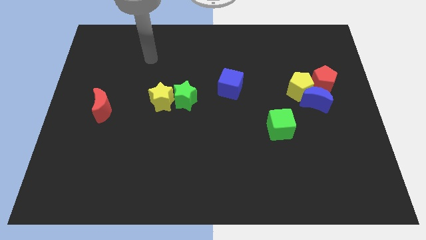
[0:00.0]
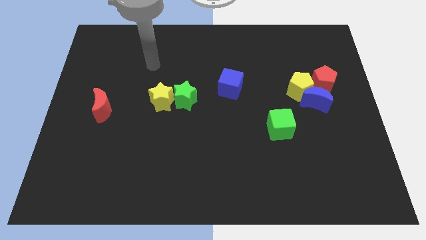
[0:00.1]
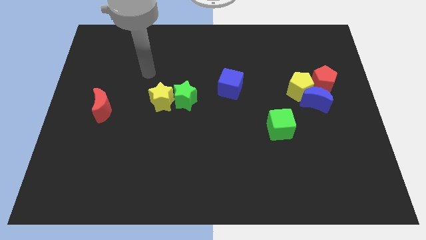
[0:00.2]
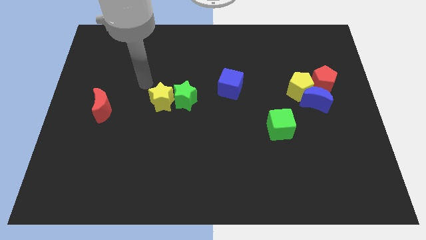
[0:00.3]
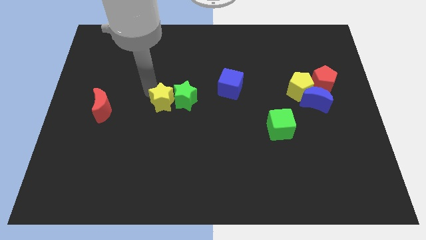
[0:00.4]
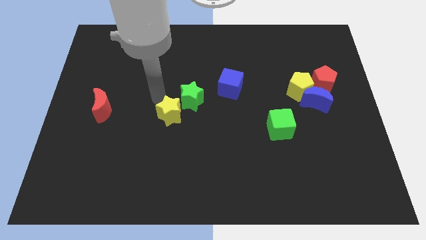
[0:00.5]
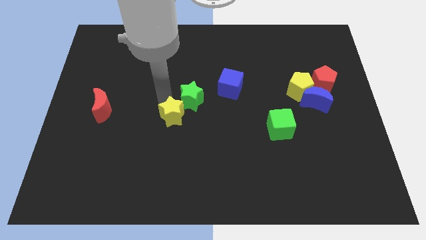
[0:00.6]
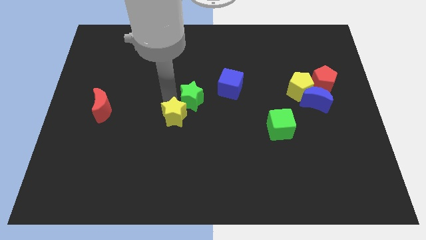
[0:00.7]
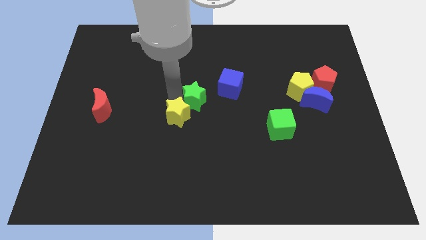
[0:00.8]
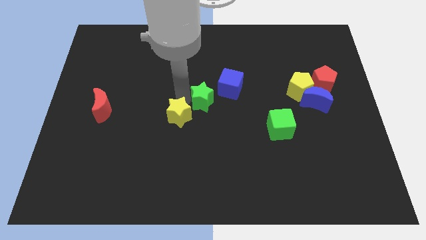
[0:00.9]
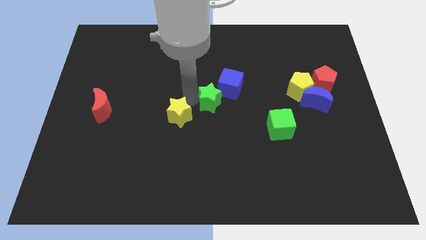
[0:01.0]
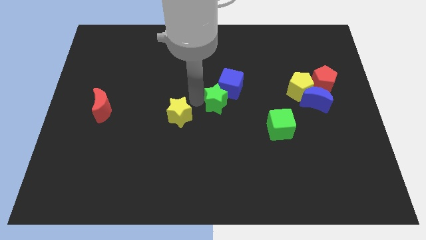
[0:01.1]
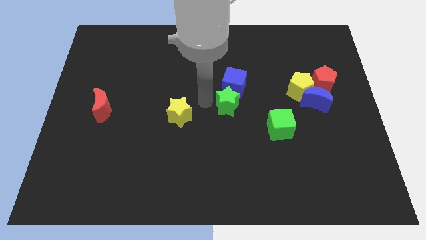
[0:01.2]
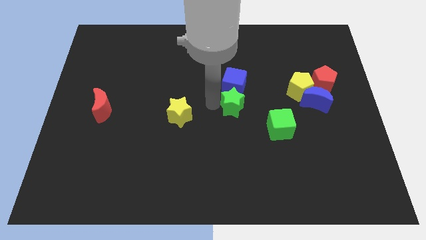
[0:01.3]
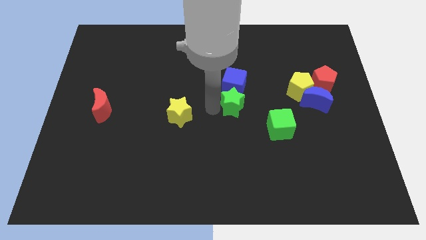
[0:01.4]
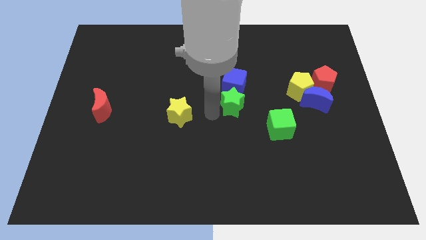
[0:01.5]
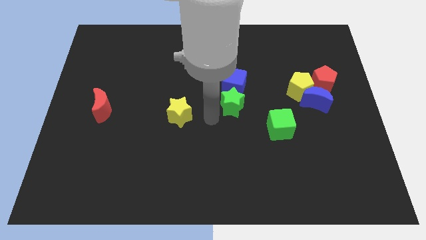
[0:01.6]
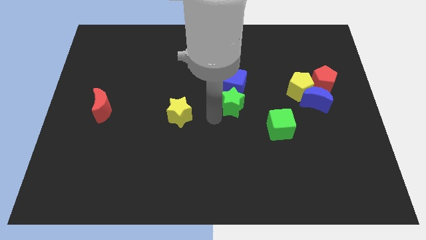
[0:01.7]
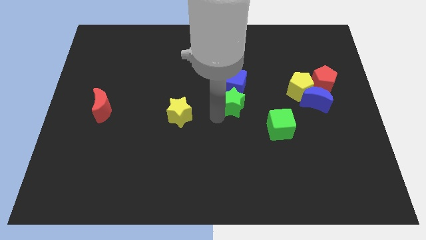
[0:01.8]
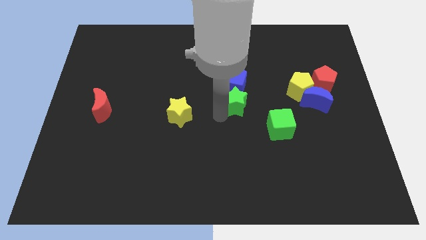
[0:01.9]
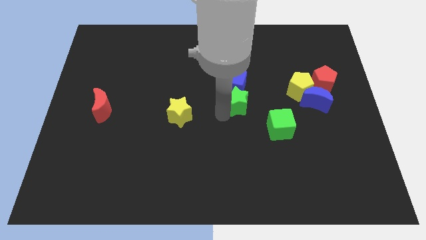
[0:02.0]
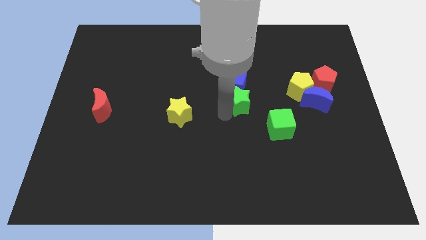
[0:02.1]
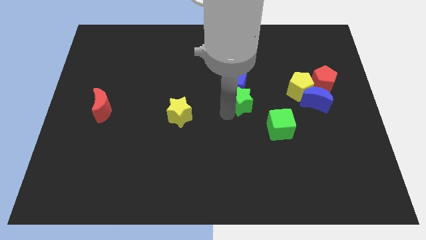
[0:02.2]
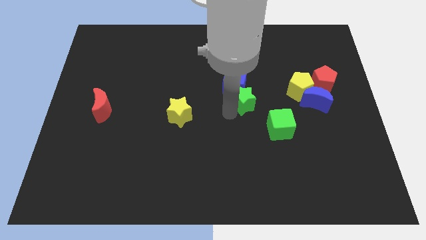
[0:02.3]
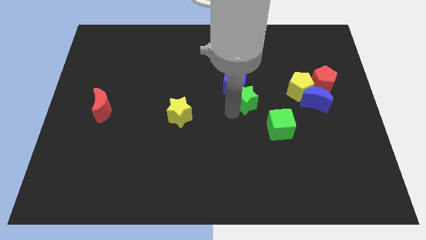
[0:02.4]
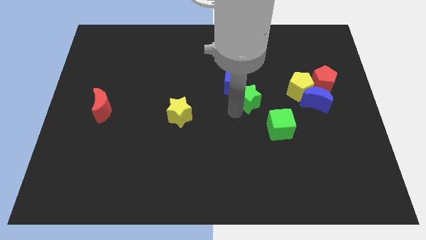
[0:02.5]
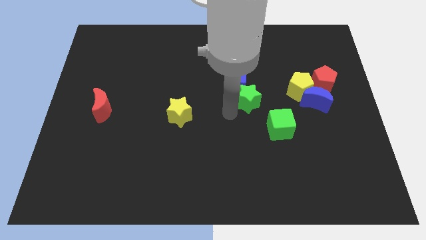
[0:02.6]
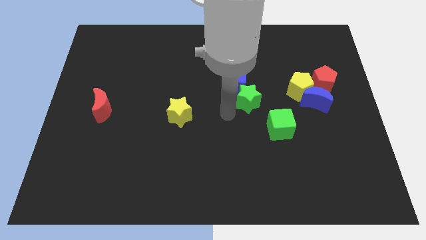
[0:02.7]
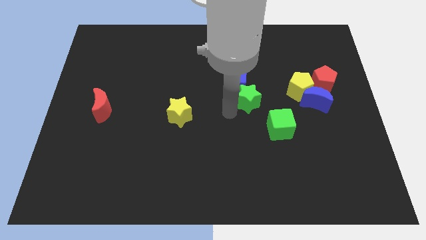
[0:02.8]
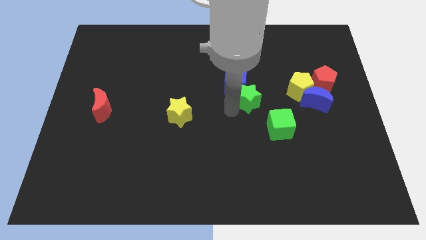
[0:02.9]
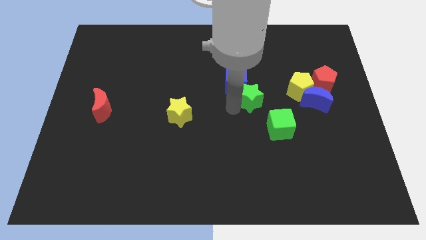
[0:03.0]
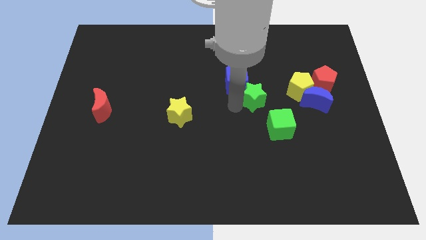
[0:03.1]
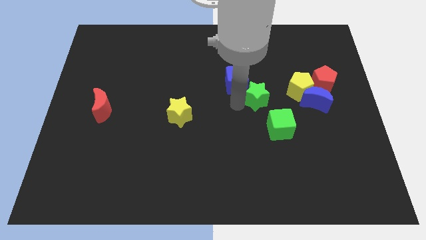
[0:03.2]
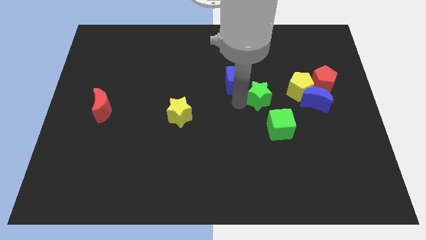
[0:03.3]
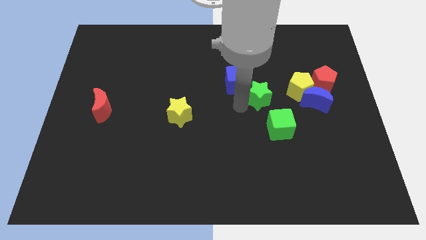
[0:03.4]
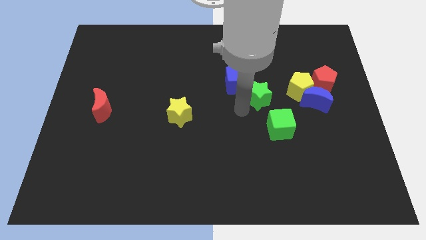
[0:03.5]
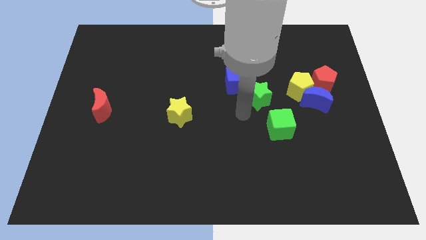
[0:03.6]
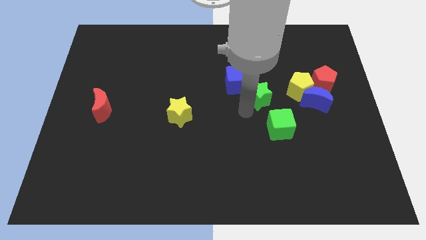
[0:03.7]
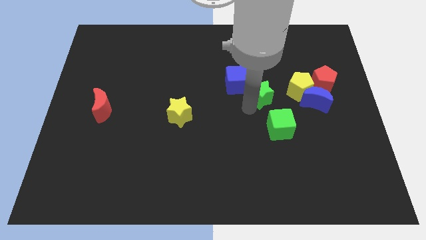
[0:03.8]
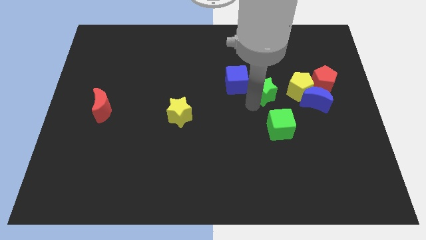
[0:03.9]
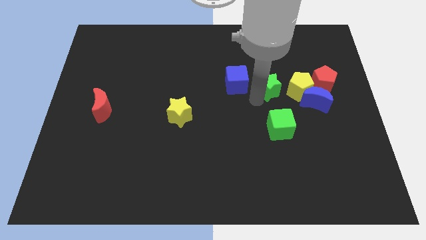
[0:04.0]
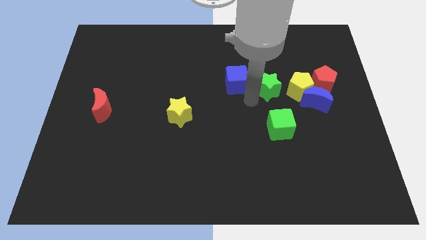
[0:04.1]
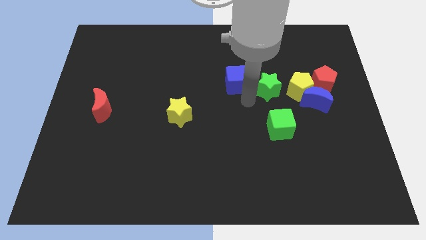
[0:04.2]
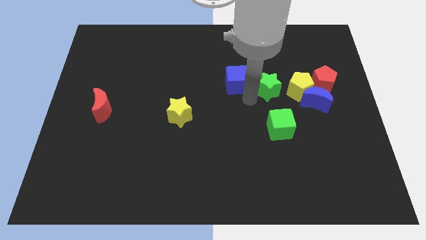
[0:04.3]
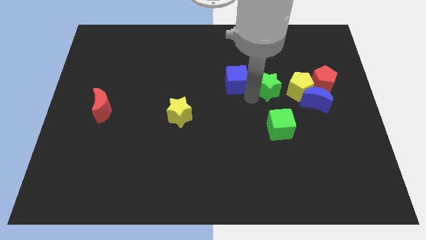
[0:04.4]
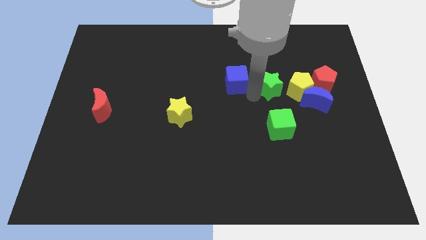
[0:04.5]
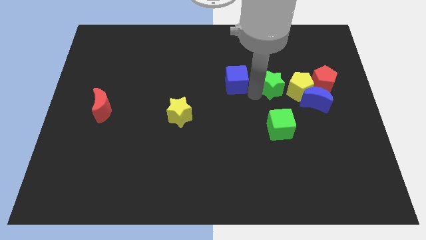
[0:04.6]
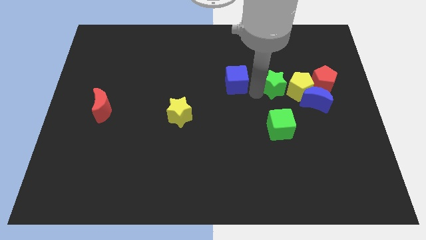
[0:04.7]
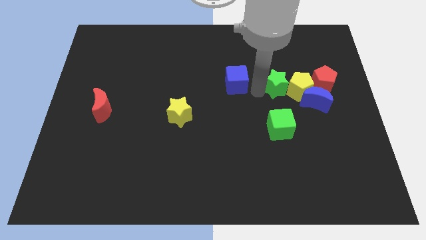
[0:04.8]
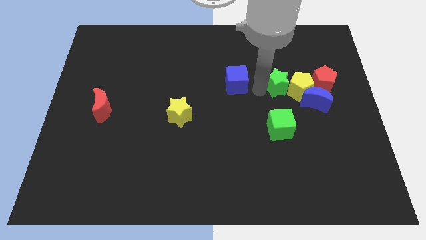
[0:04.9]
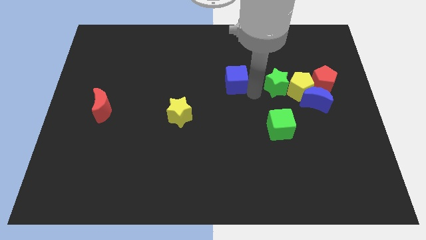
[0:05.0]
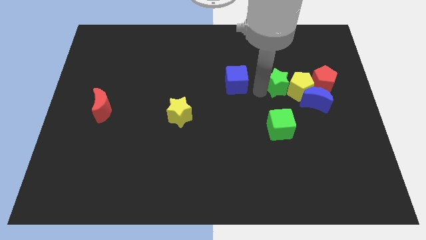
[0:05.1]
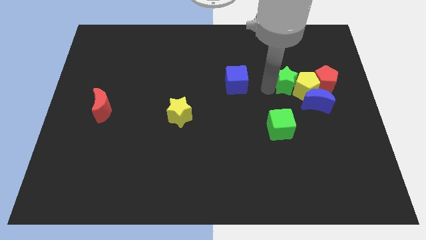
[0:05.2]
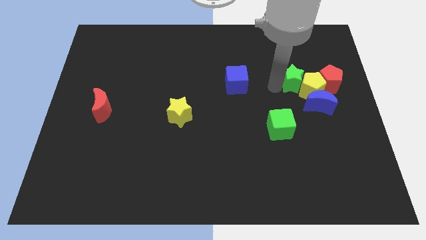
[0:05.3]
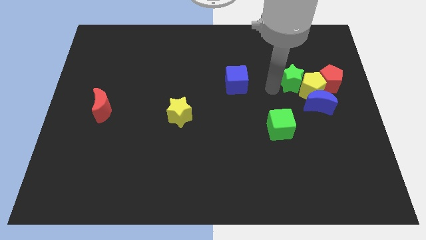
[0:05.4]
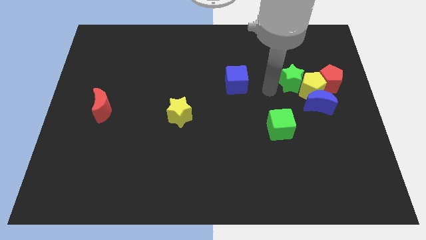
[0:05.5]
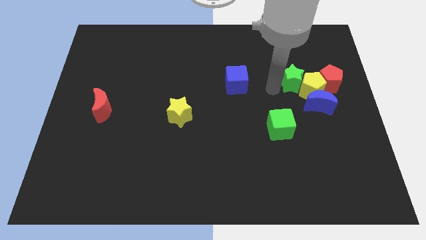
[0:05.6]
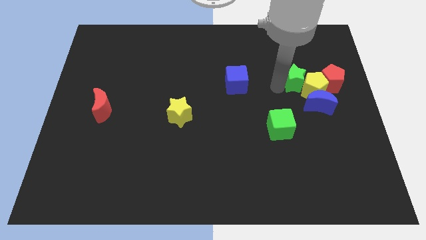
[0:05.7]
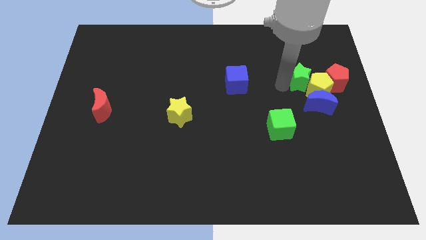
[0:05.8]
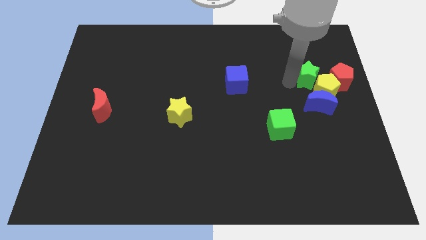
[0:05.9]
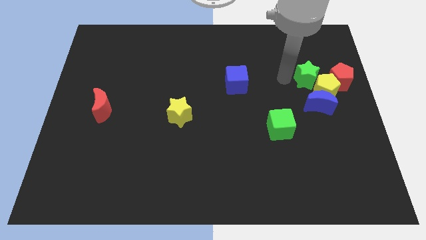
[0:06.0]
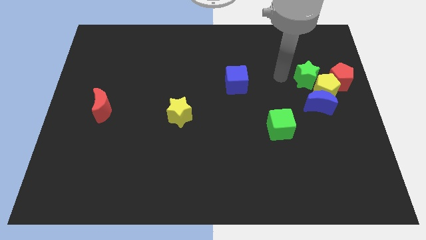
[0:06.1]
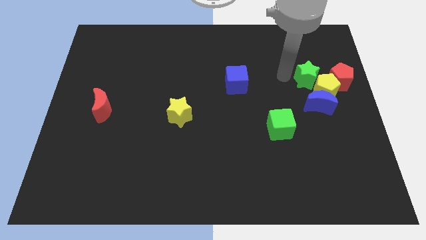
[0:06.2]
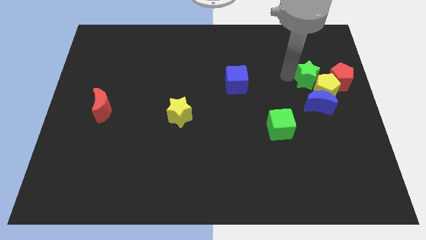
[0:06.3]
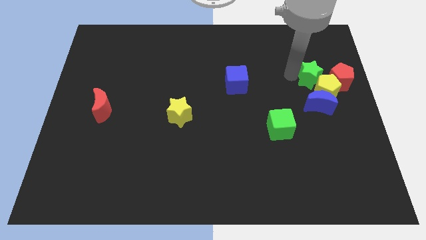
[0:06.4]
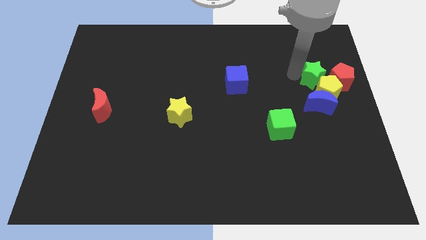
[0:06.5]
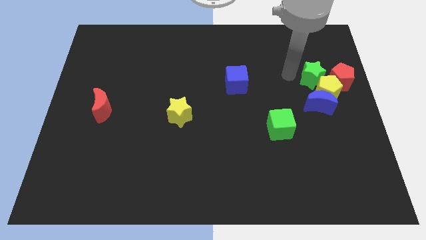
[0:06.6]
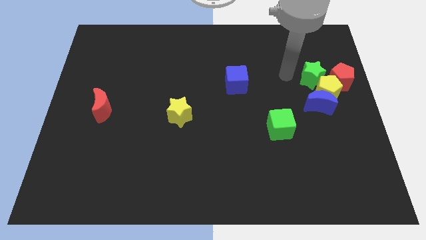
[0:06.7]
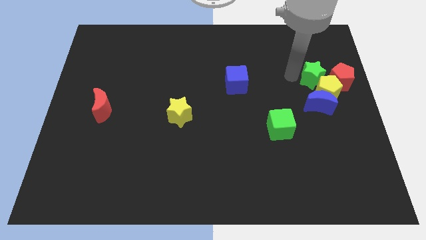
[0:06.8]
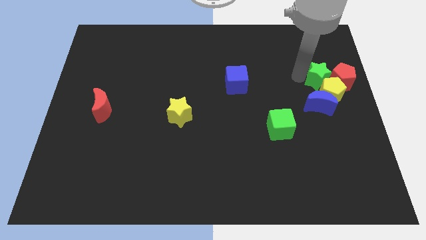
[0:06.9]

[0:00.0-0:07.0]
move the green star towards the red pentagon
